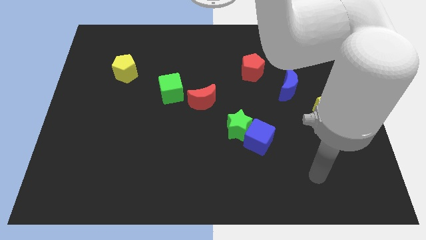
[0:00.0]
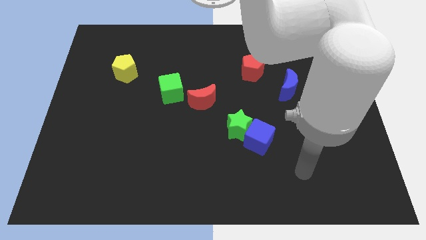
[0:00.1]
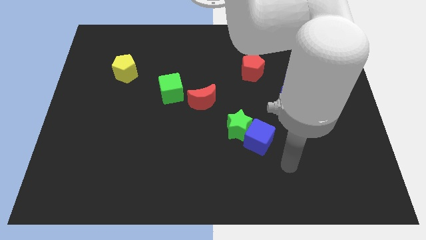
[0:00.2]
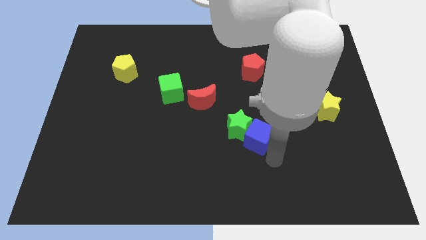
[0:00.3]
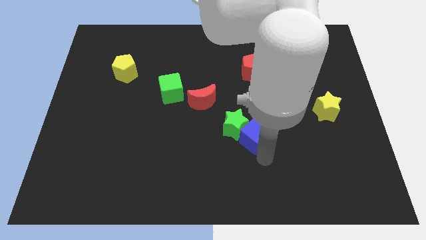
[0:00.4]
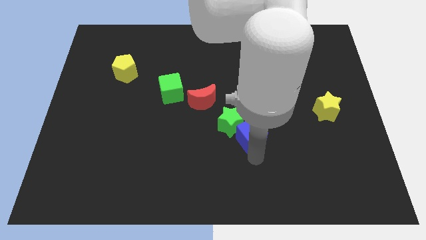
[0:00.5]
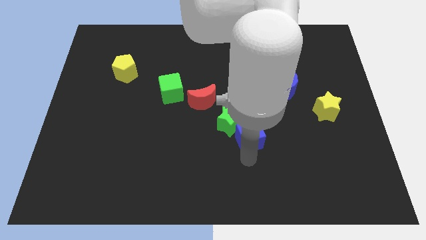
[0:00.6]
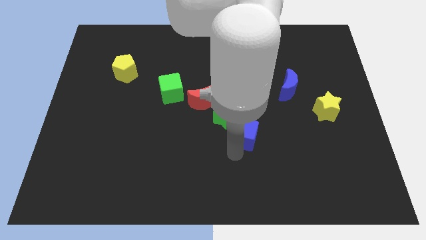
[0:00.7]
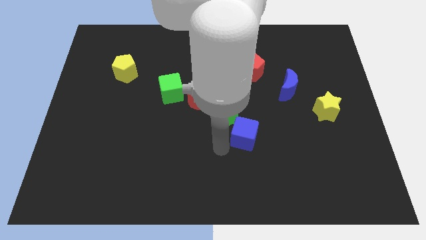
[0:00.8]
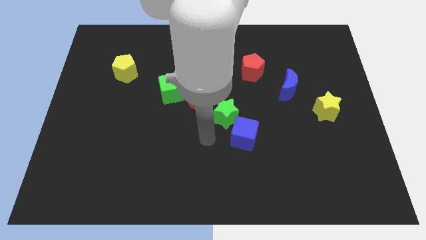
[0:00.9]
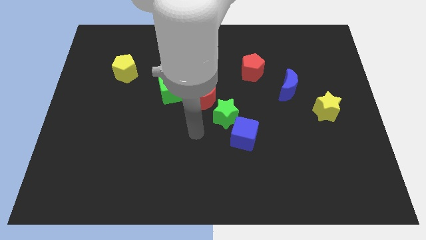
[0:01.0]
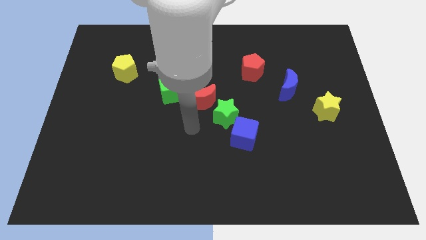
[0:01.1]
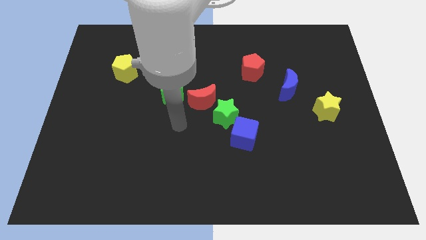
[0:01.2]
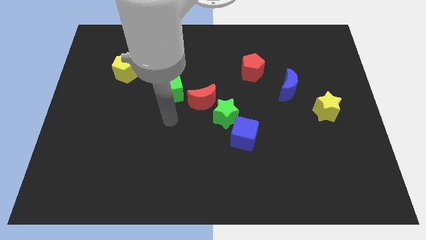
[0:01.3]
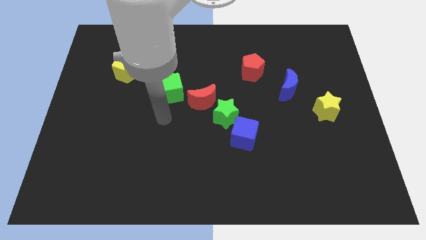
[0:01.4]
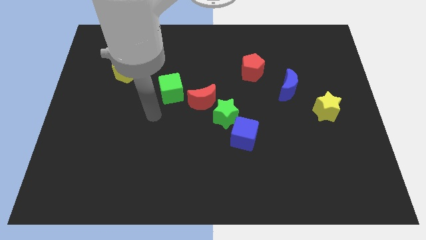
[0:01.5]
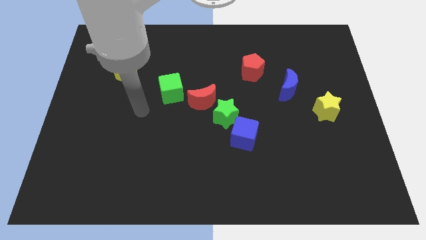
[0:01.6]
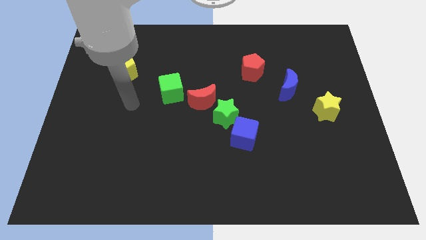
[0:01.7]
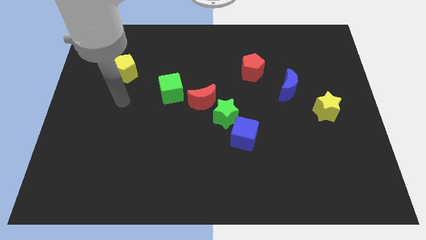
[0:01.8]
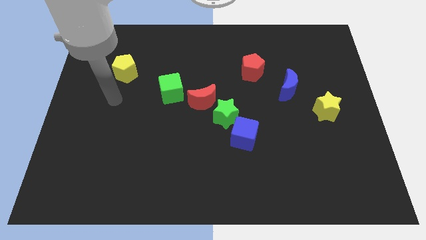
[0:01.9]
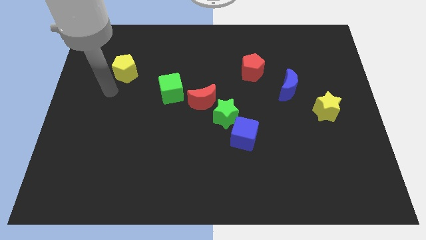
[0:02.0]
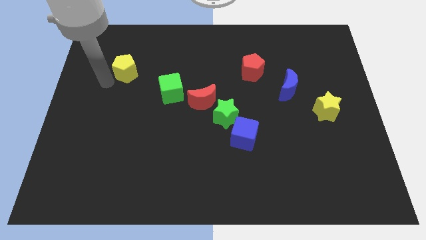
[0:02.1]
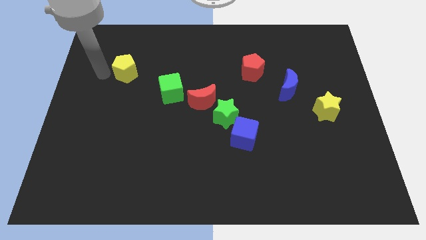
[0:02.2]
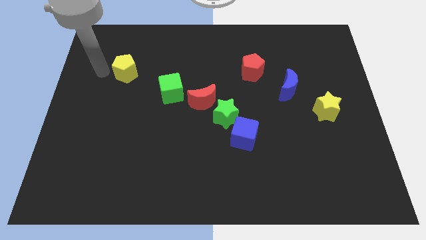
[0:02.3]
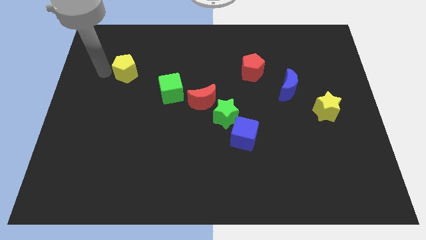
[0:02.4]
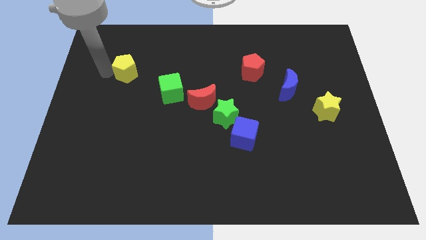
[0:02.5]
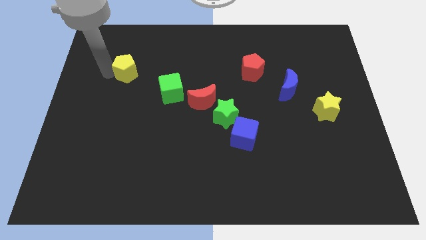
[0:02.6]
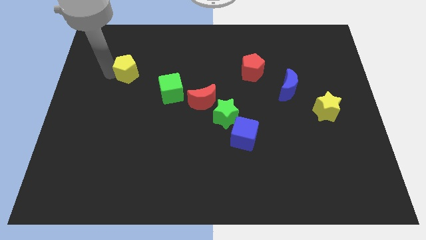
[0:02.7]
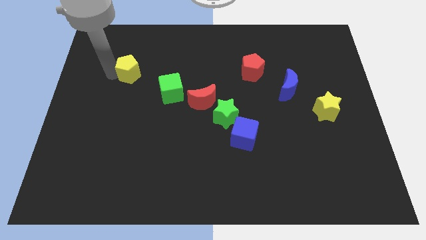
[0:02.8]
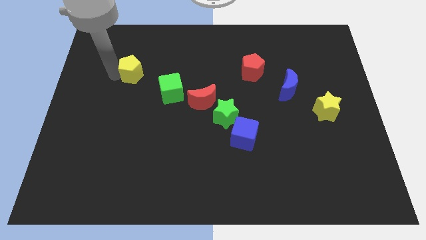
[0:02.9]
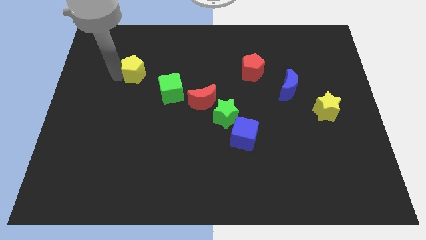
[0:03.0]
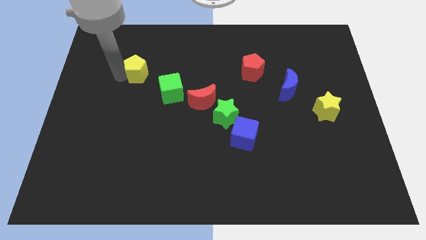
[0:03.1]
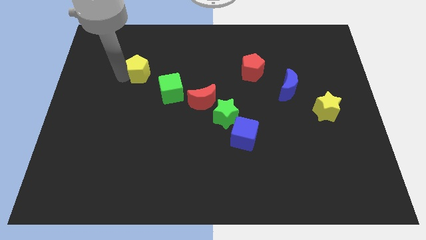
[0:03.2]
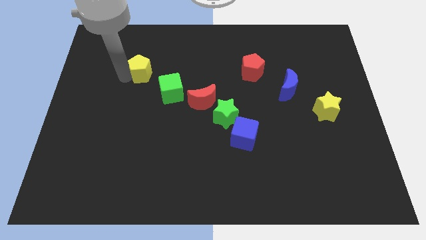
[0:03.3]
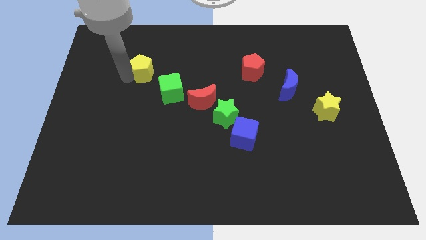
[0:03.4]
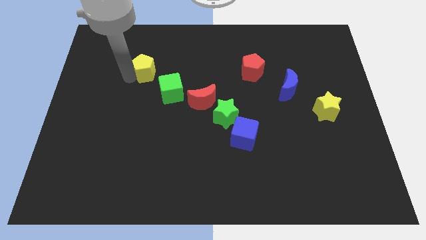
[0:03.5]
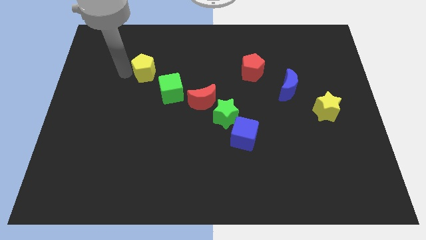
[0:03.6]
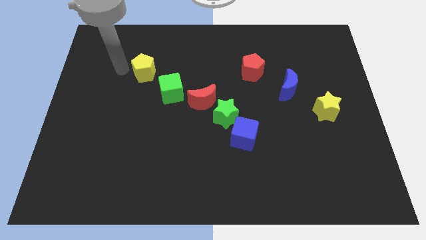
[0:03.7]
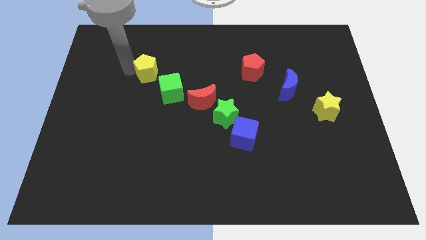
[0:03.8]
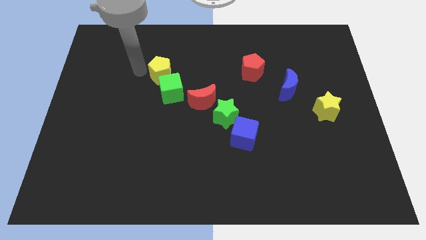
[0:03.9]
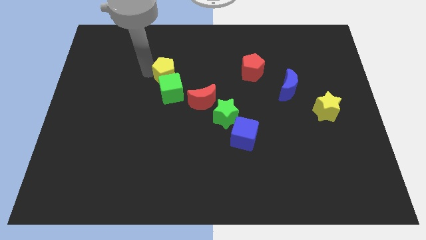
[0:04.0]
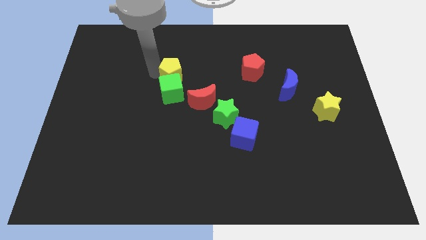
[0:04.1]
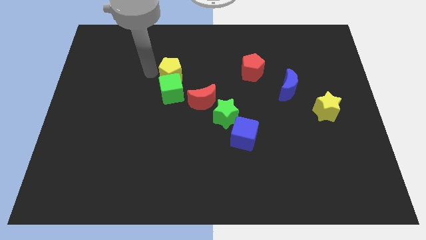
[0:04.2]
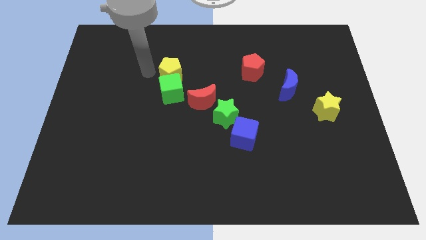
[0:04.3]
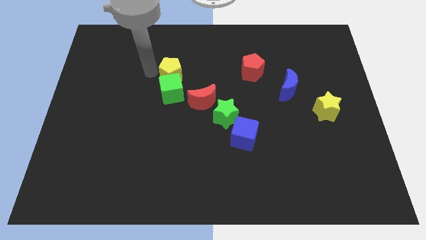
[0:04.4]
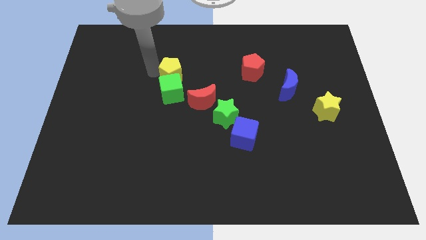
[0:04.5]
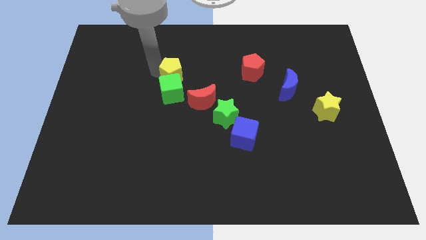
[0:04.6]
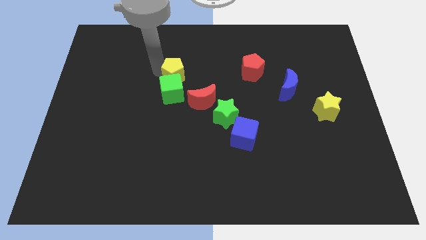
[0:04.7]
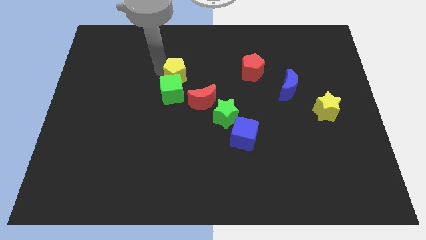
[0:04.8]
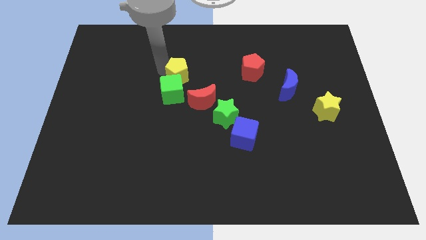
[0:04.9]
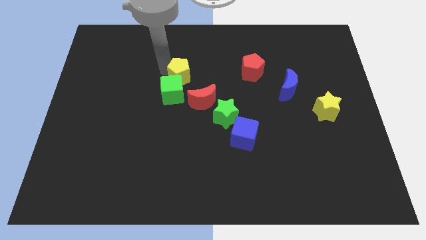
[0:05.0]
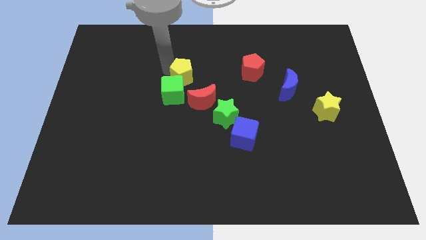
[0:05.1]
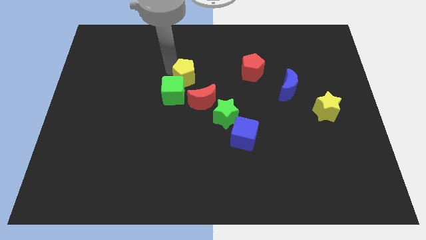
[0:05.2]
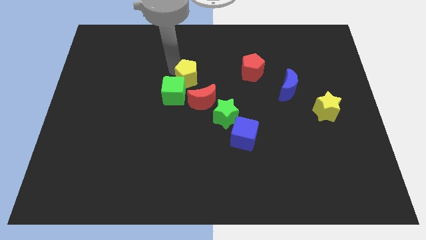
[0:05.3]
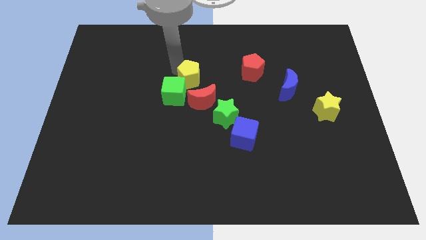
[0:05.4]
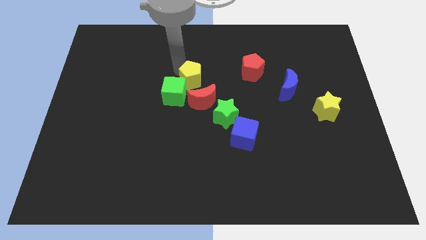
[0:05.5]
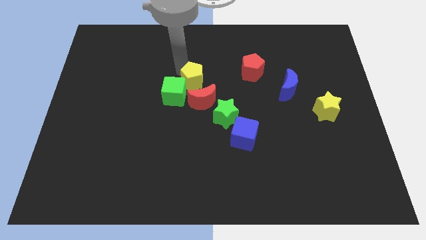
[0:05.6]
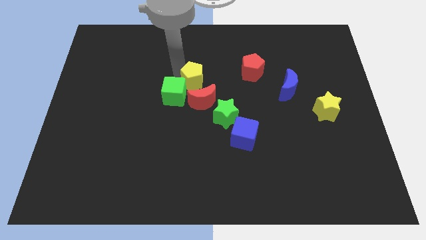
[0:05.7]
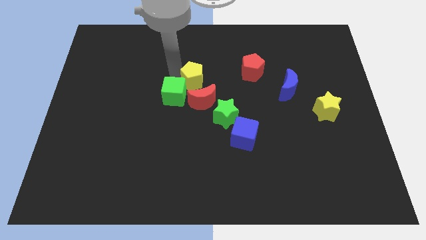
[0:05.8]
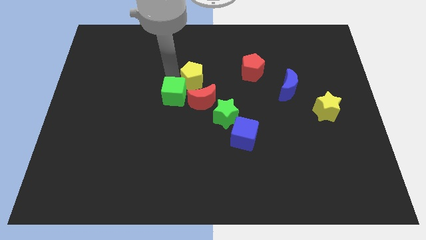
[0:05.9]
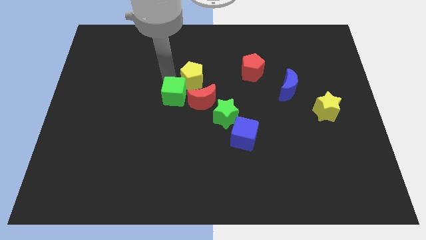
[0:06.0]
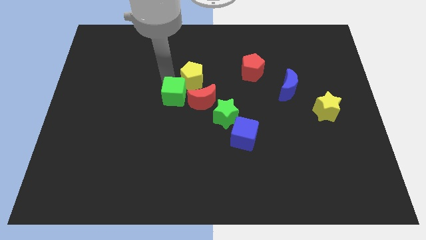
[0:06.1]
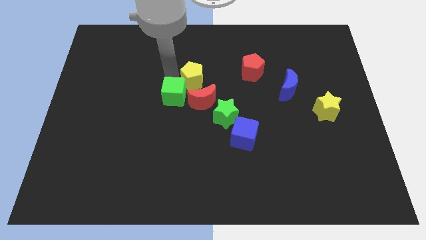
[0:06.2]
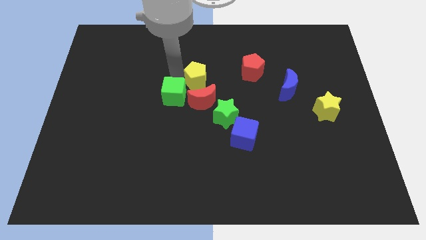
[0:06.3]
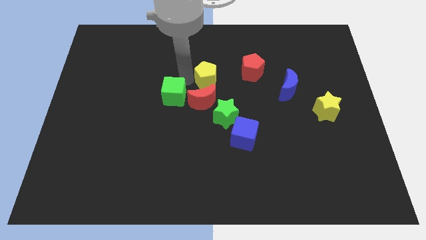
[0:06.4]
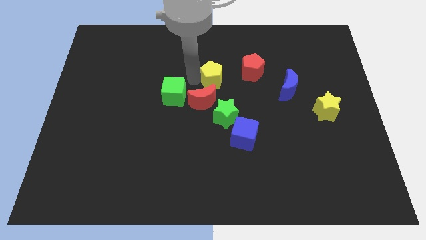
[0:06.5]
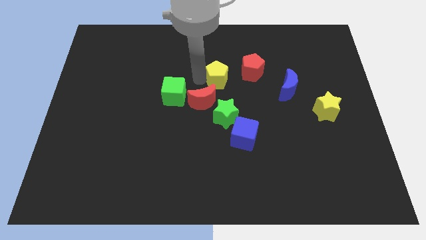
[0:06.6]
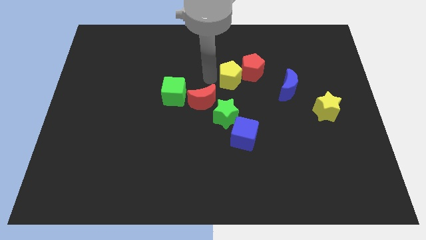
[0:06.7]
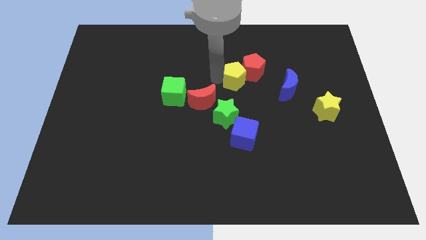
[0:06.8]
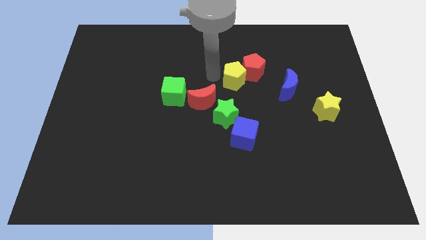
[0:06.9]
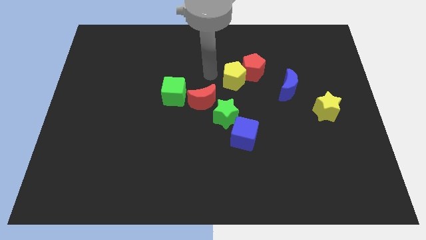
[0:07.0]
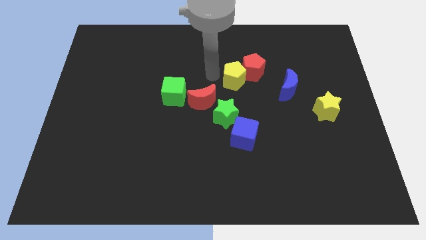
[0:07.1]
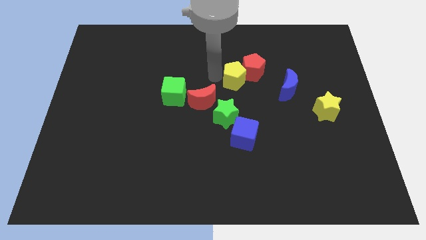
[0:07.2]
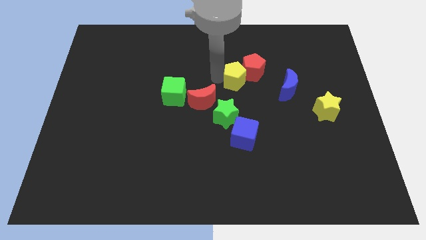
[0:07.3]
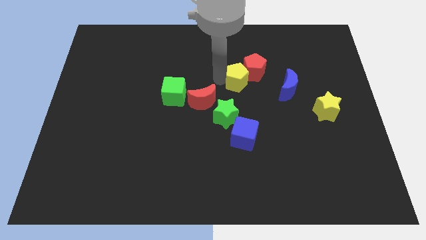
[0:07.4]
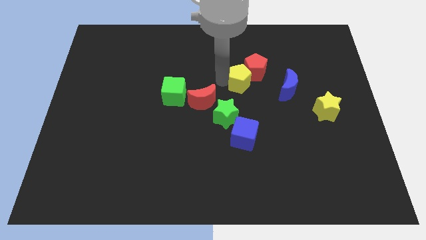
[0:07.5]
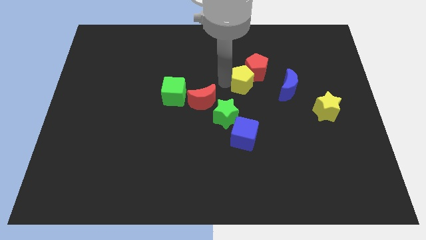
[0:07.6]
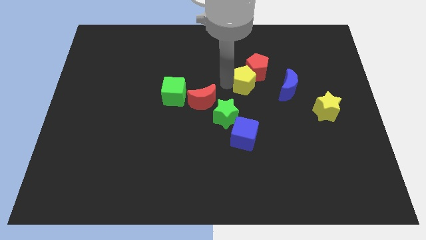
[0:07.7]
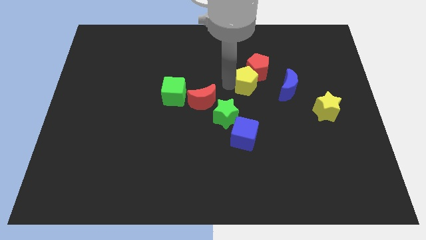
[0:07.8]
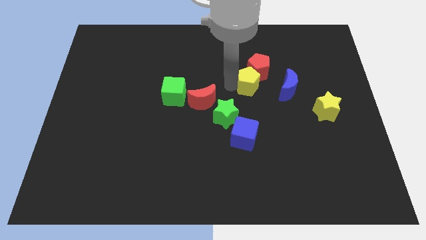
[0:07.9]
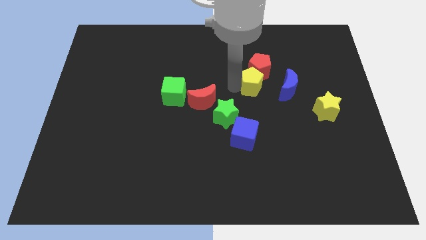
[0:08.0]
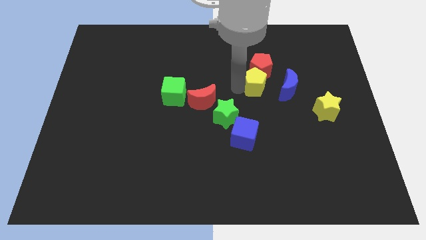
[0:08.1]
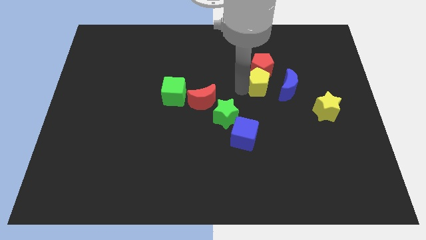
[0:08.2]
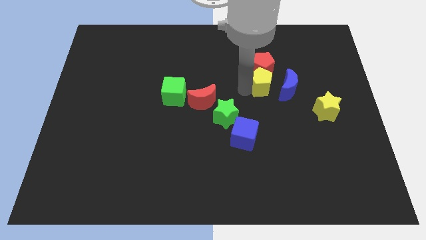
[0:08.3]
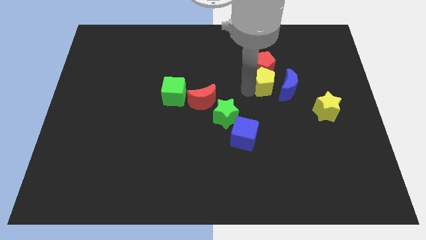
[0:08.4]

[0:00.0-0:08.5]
slide the yellow pentagon close to the blue moon
